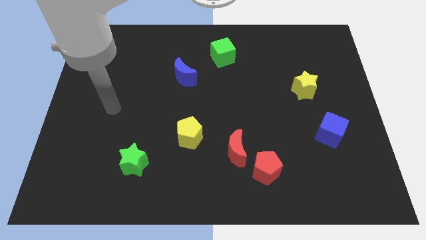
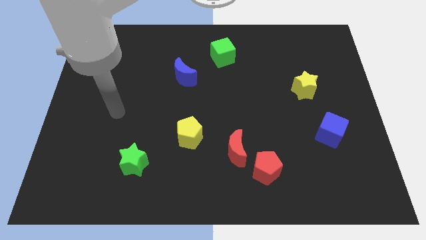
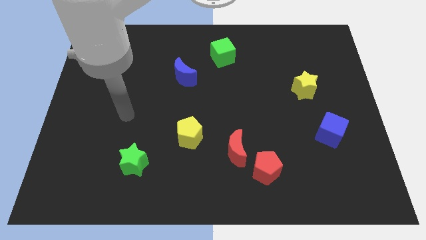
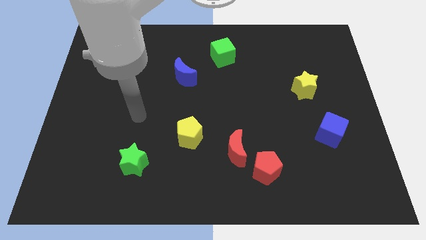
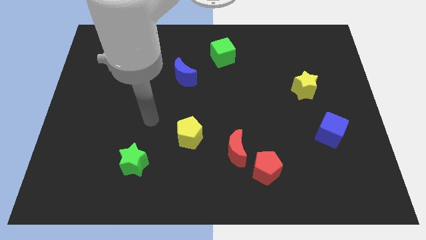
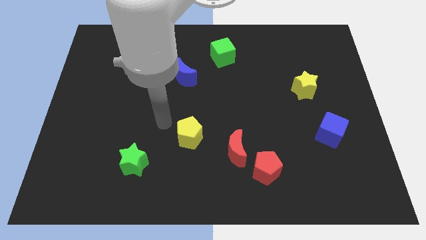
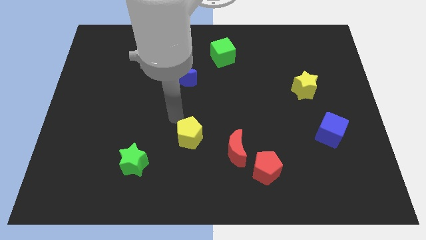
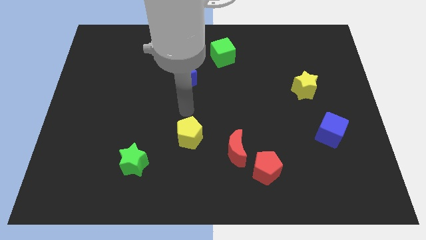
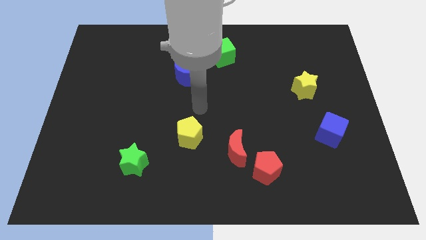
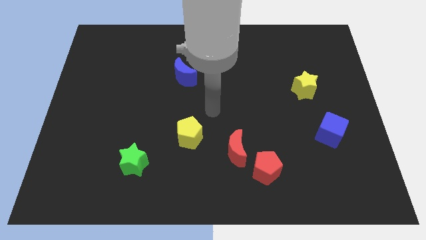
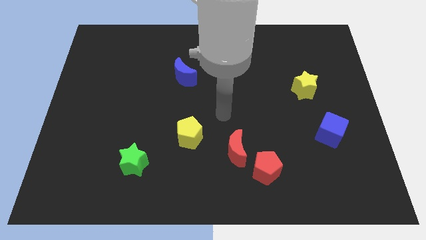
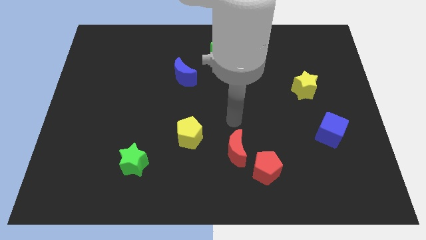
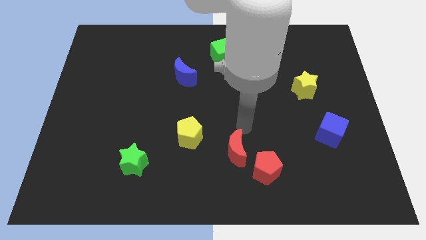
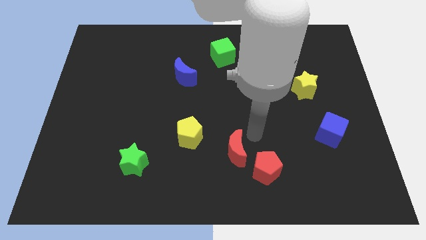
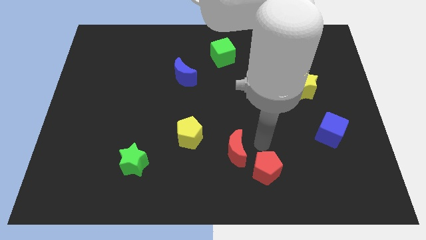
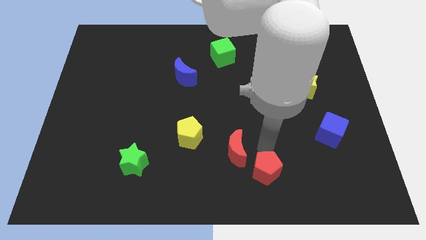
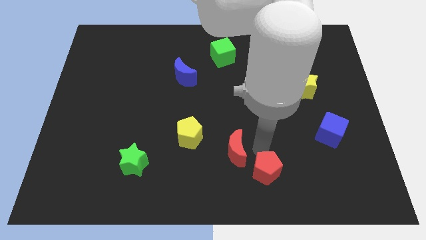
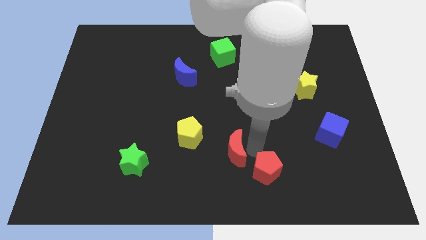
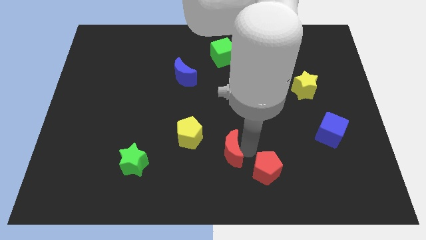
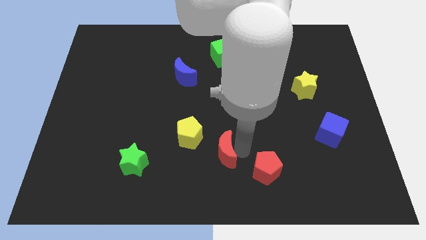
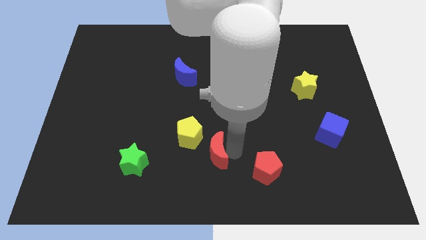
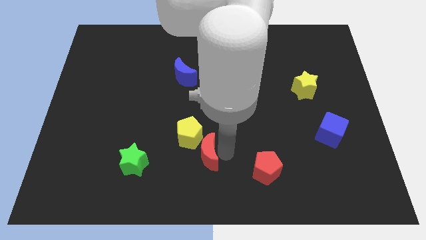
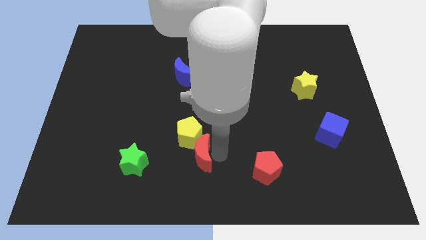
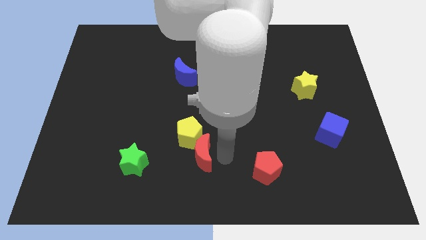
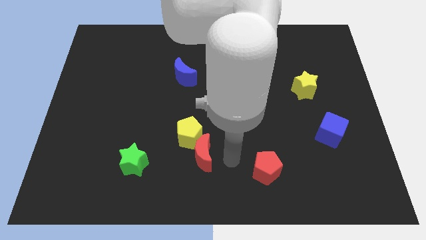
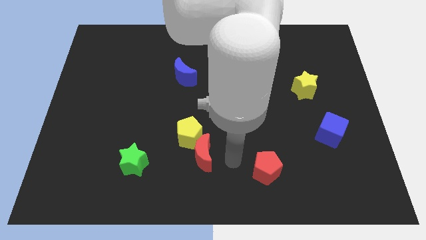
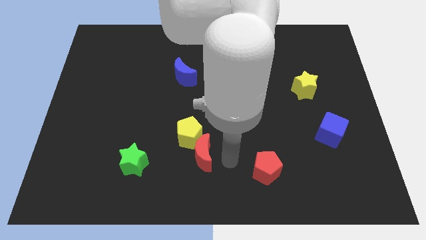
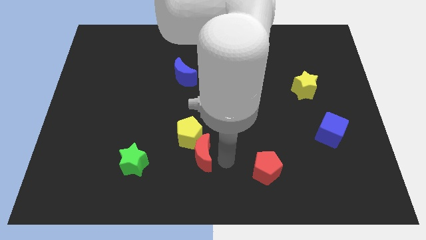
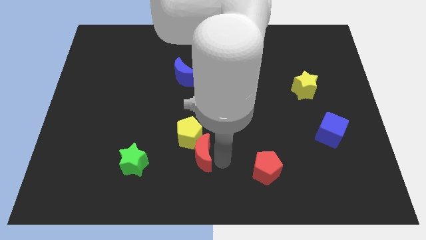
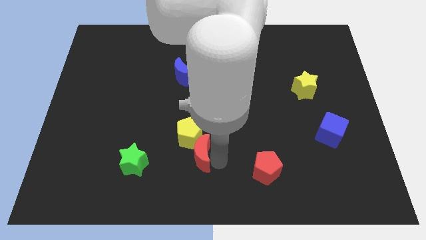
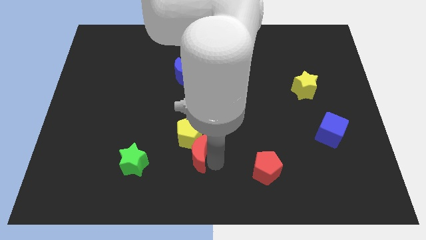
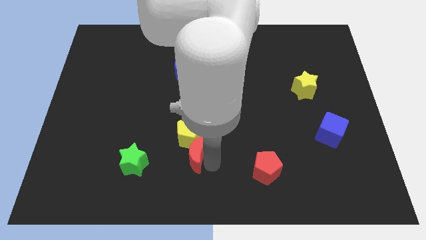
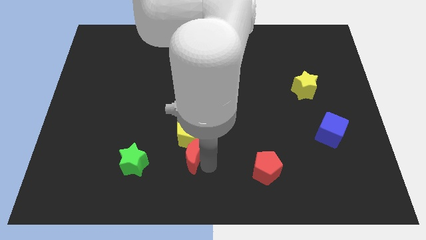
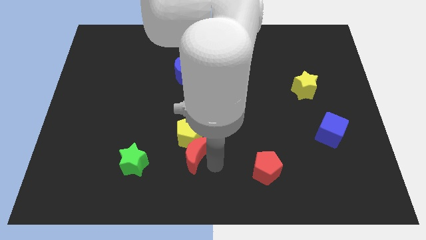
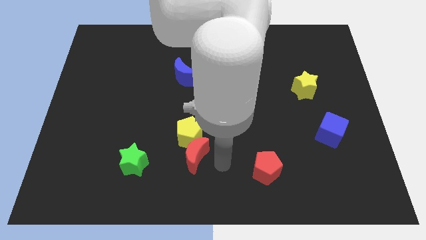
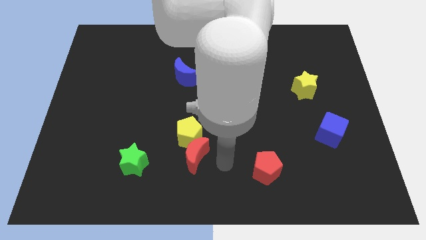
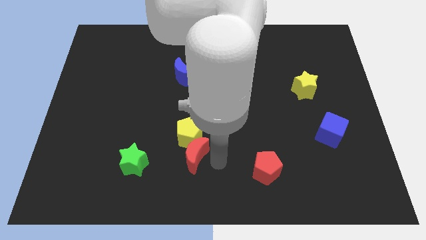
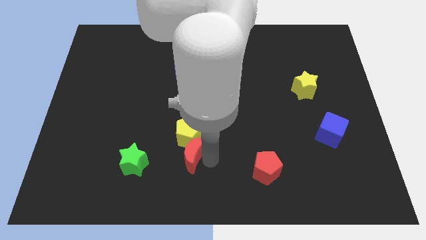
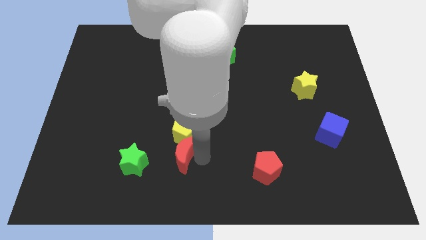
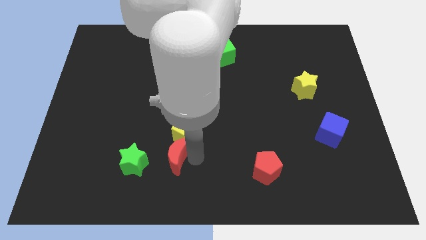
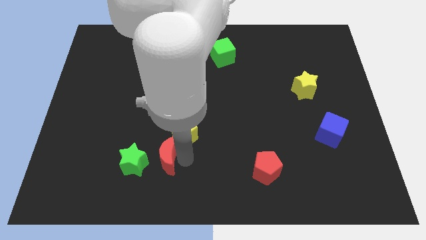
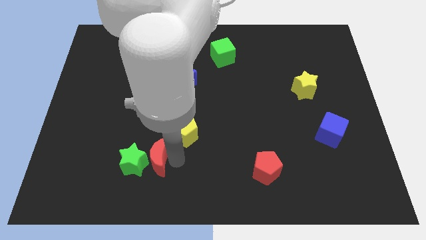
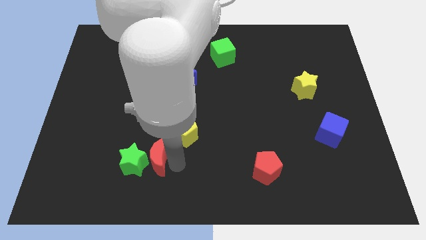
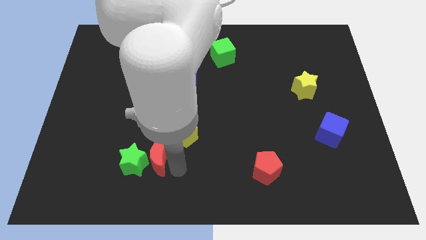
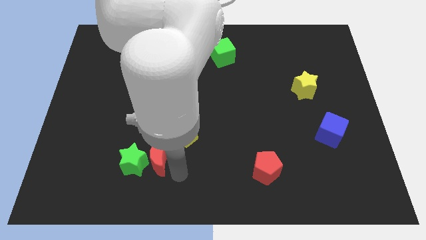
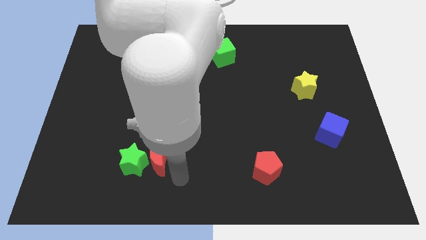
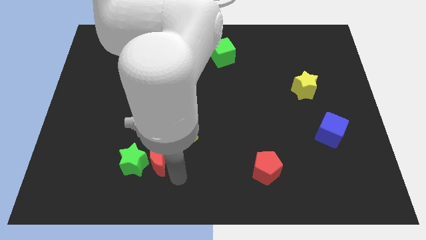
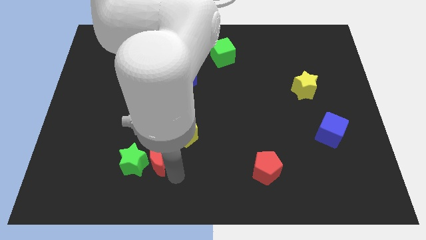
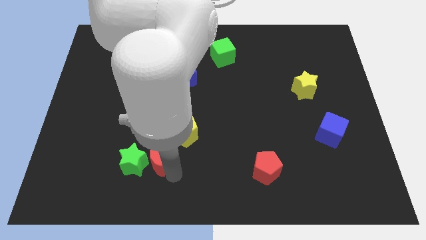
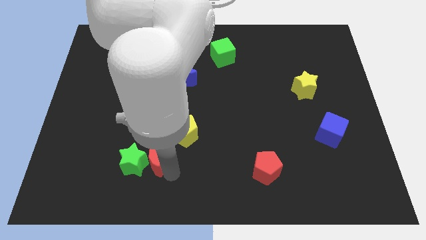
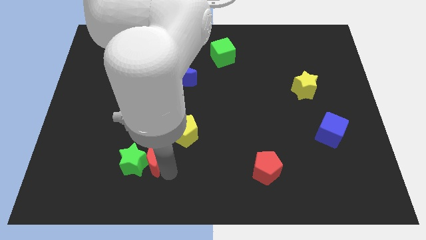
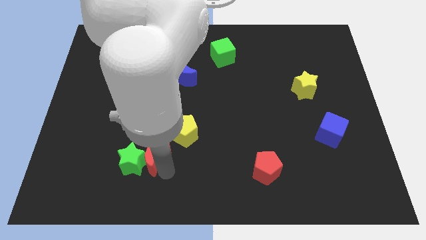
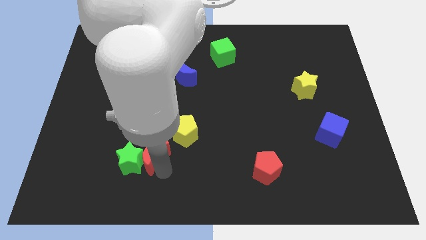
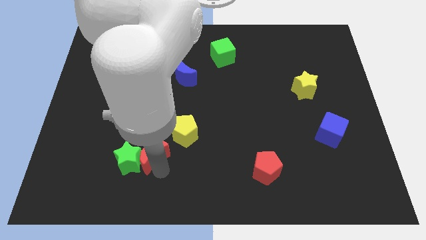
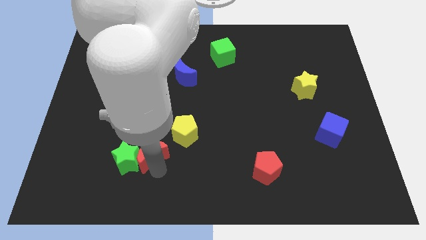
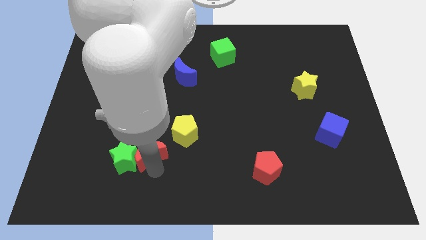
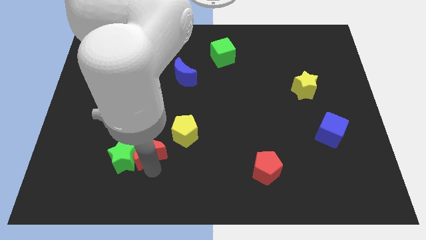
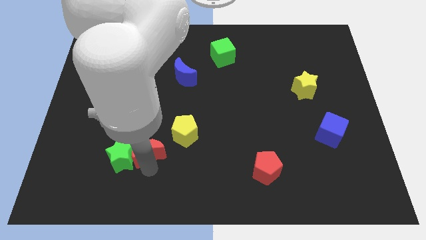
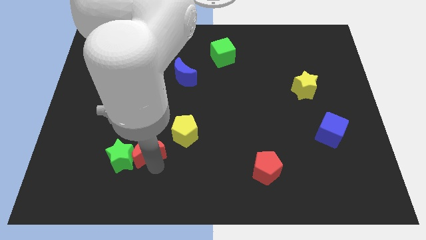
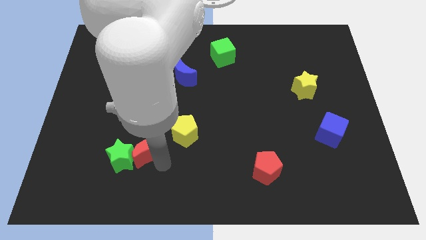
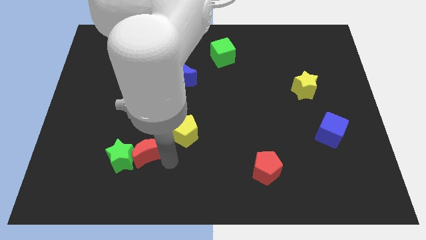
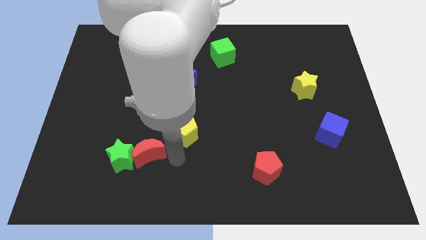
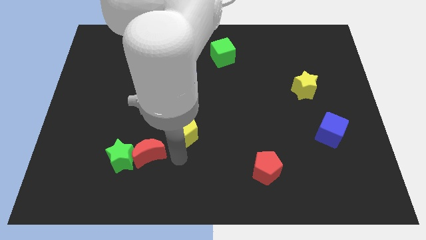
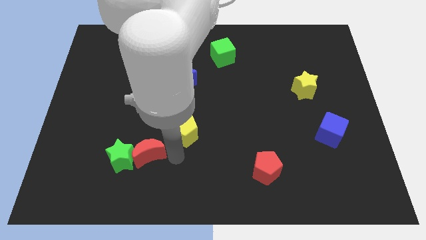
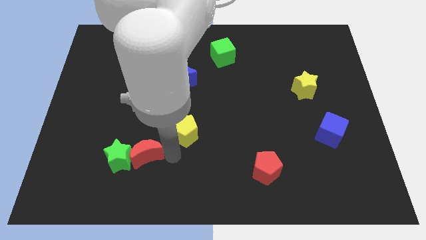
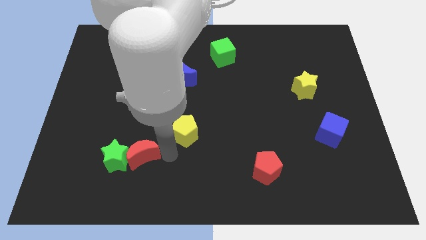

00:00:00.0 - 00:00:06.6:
slide the red moon to the left

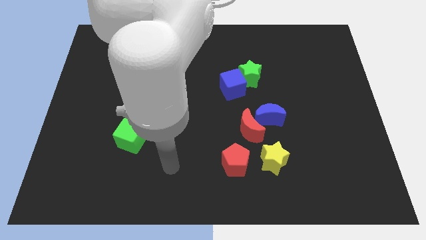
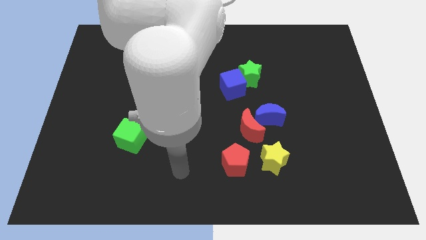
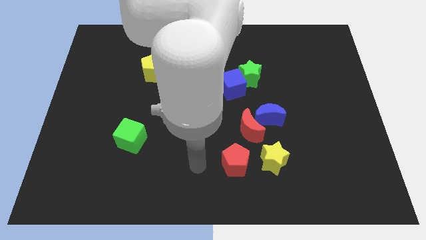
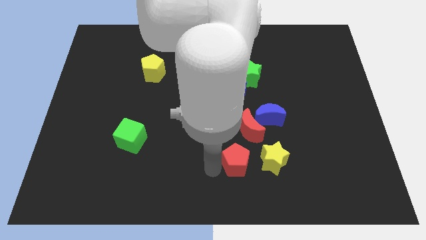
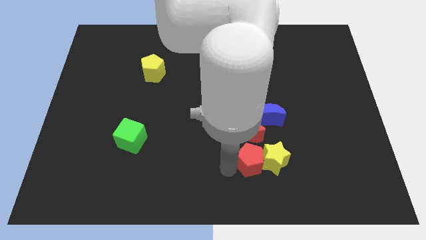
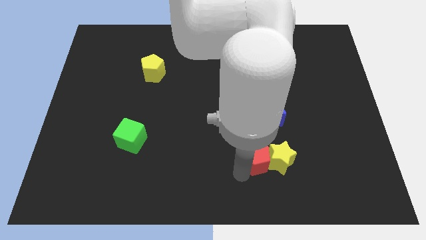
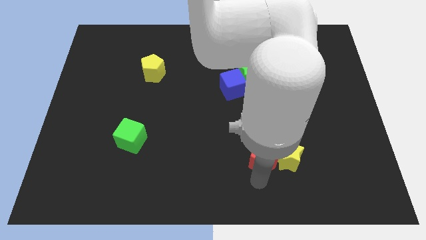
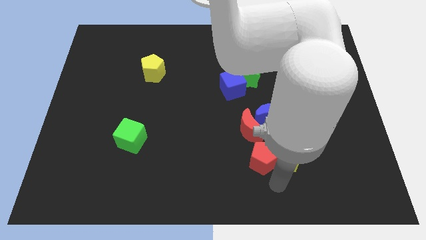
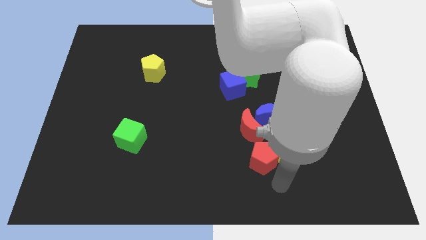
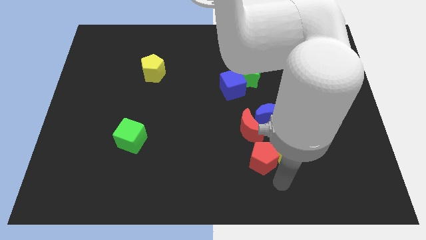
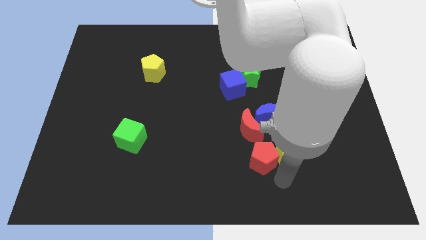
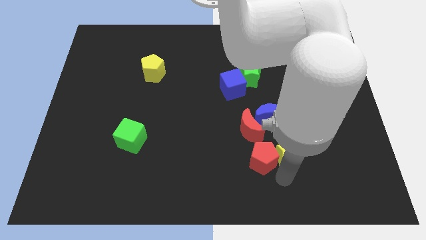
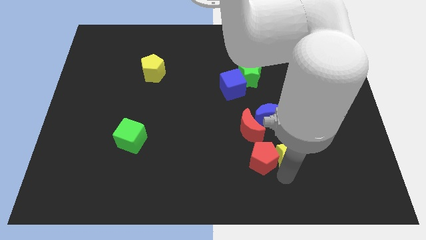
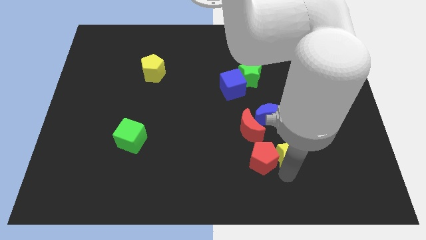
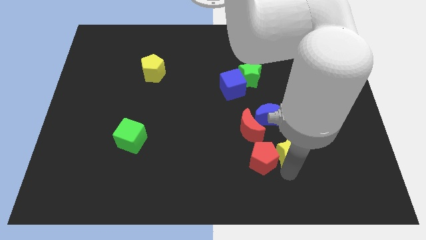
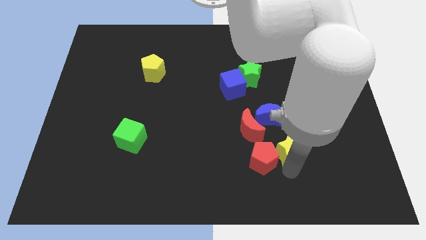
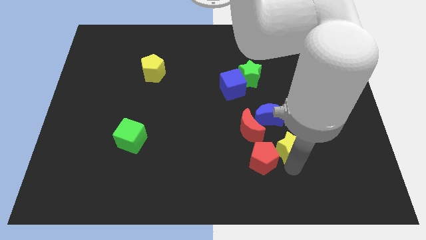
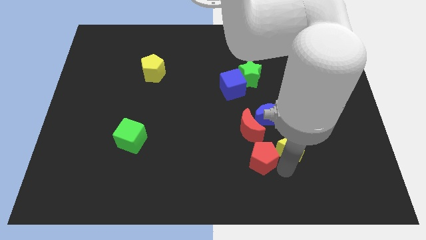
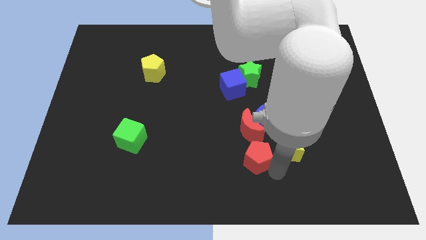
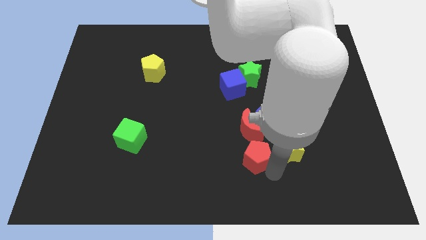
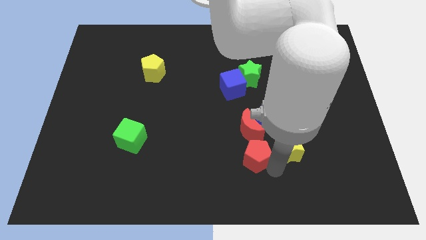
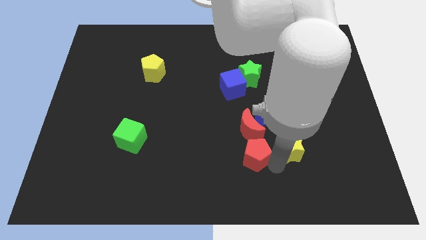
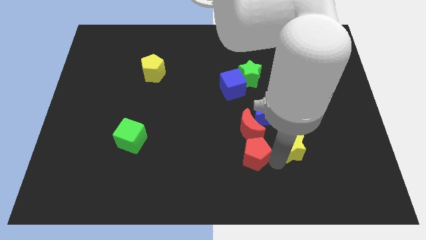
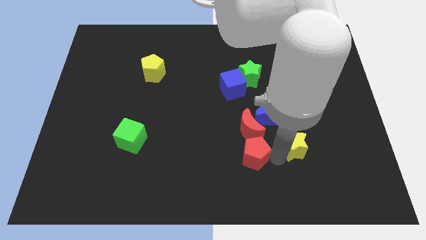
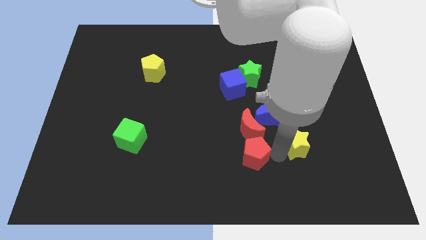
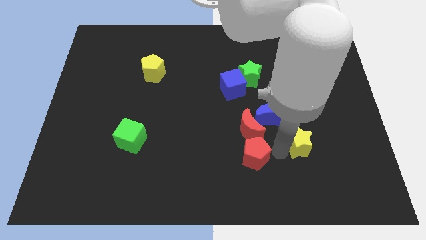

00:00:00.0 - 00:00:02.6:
push the yellow star a little diagonally up and to the right
